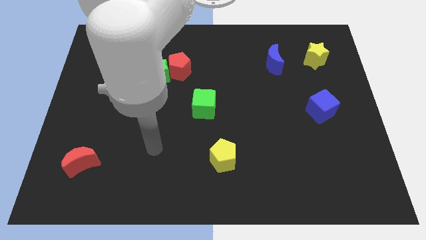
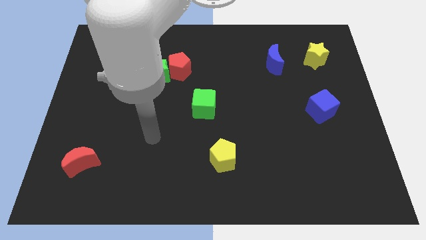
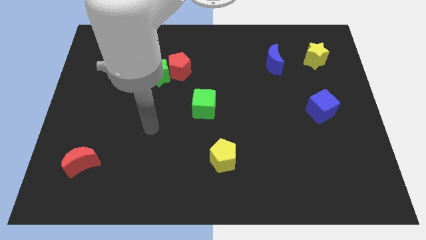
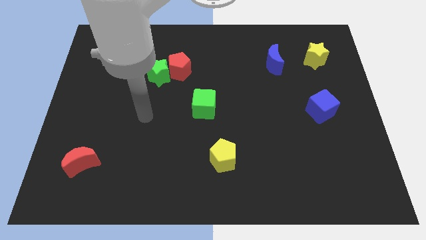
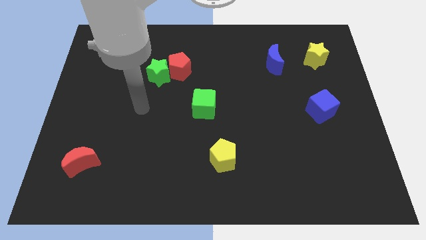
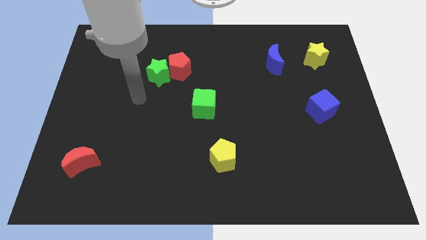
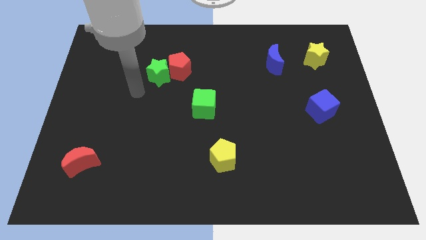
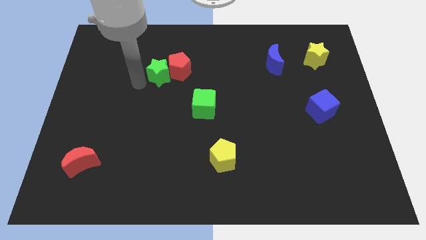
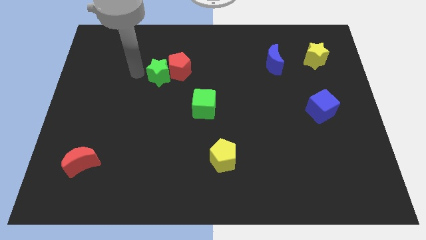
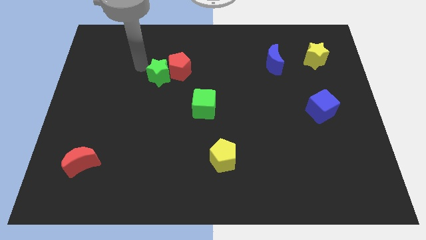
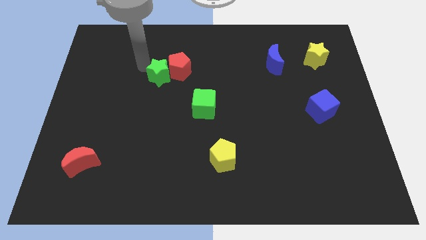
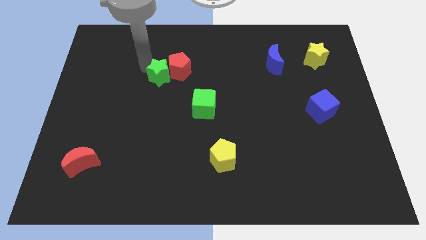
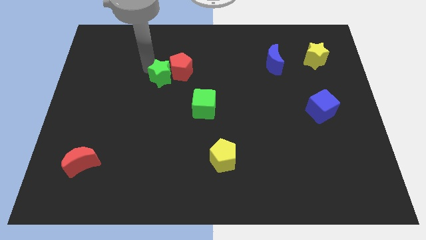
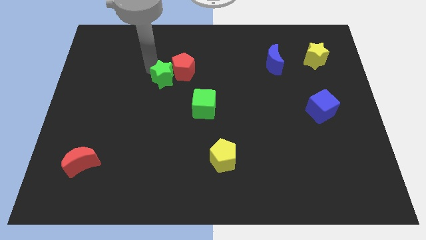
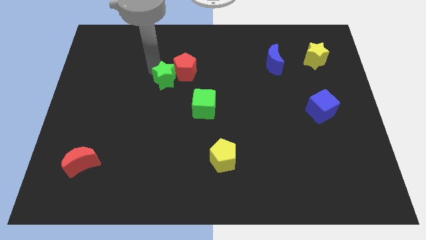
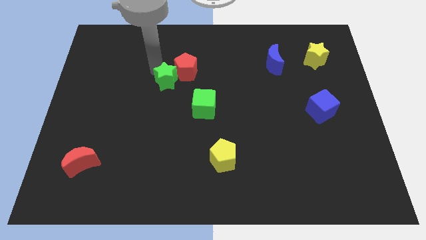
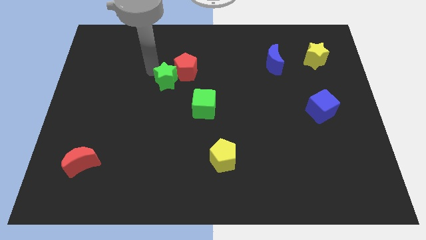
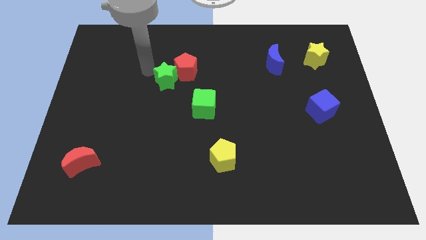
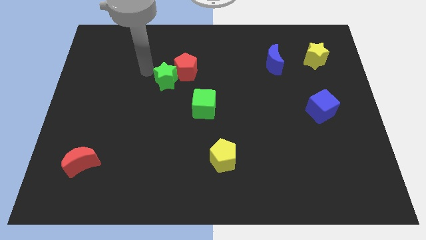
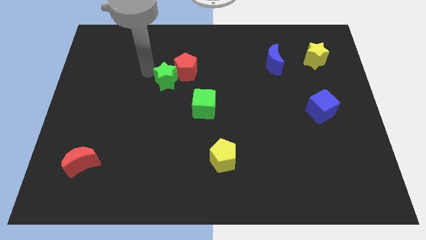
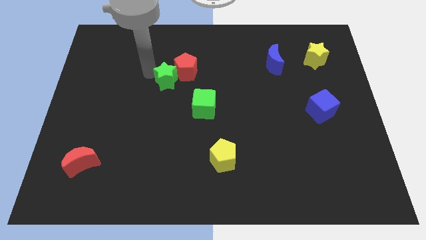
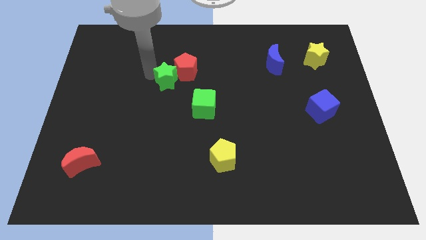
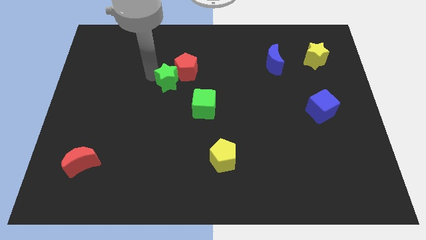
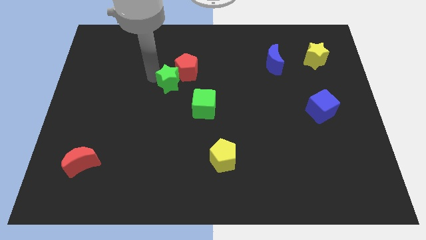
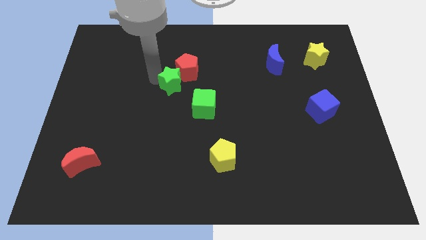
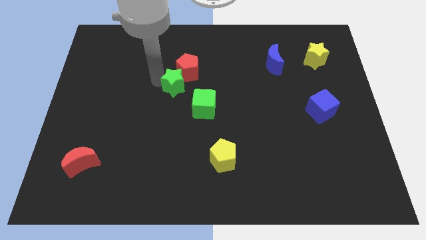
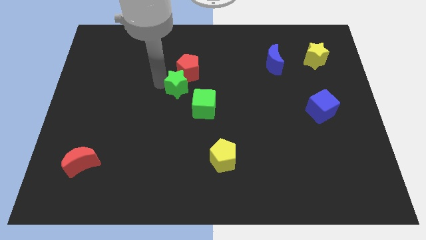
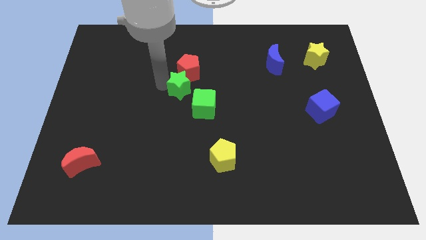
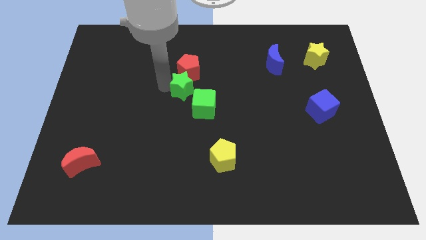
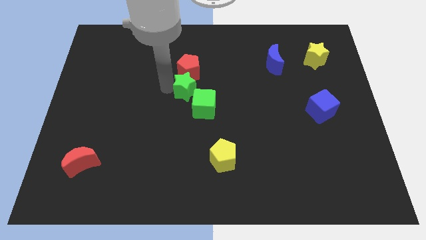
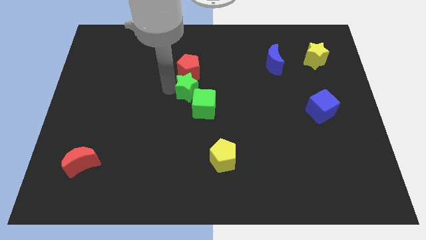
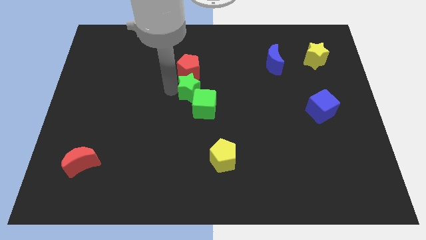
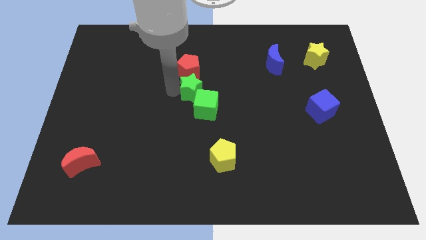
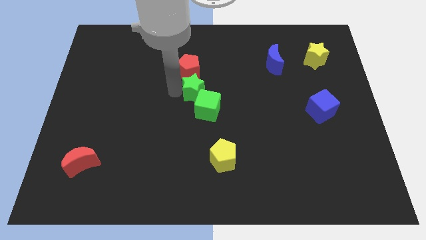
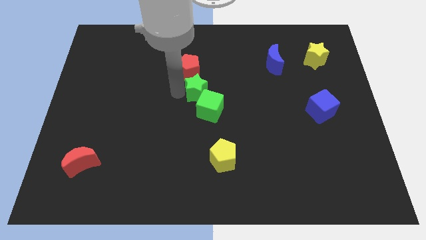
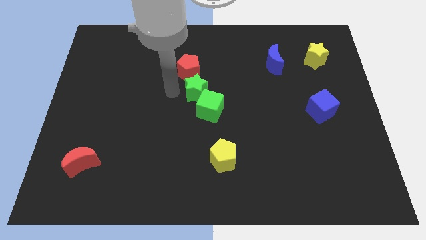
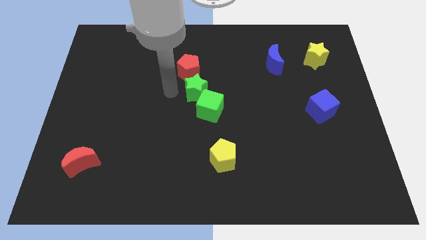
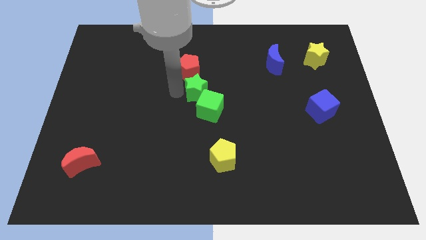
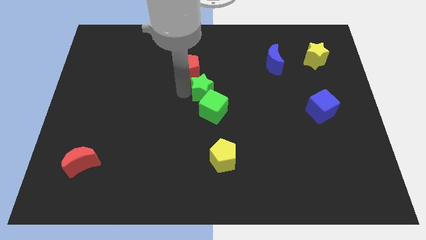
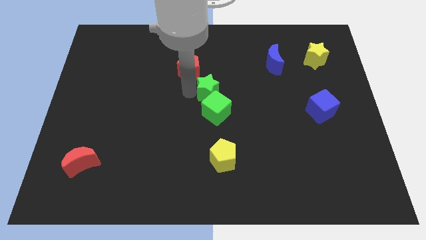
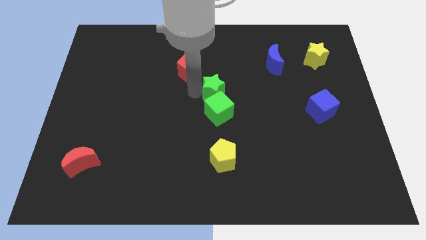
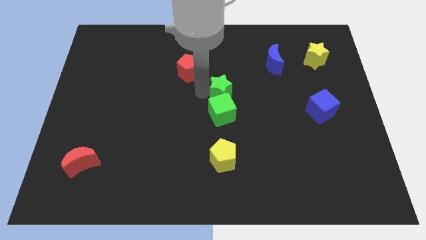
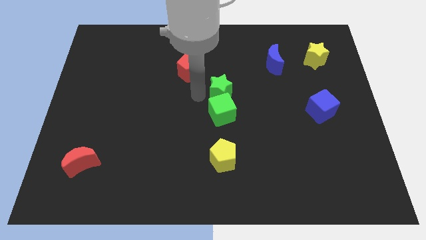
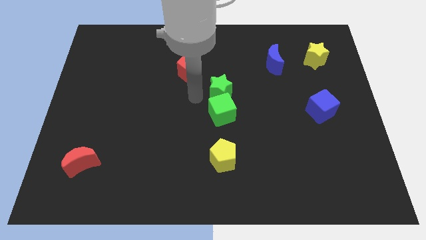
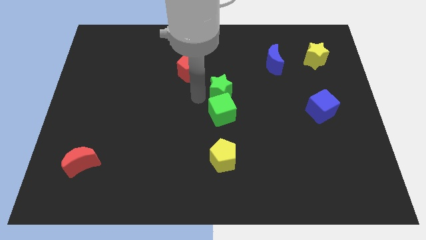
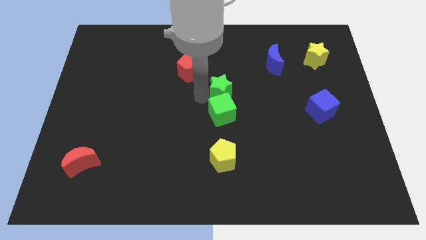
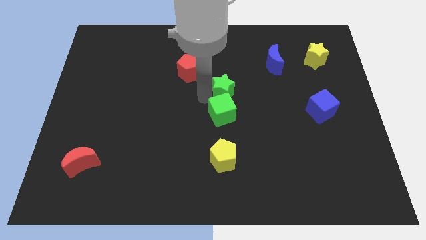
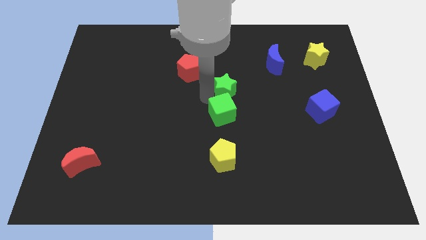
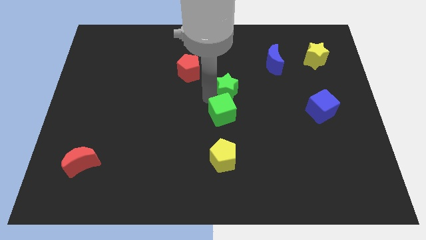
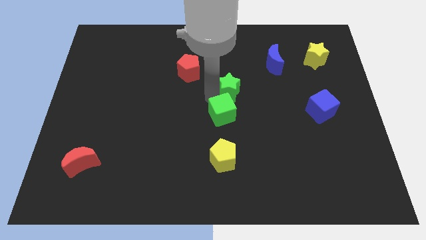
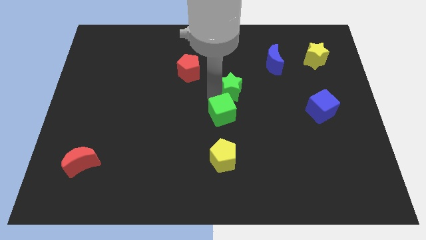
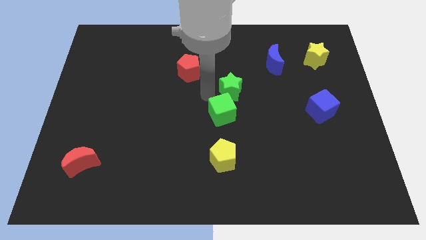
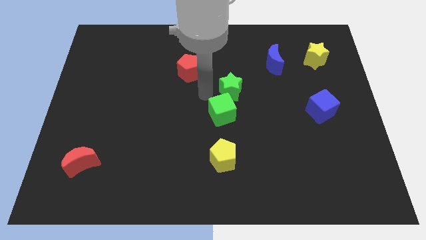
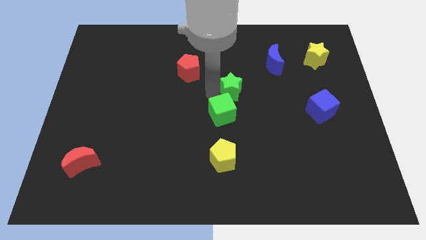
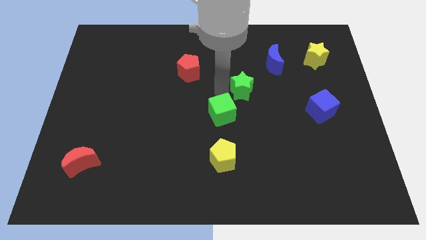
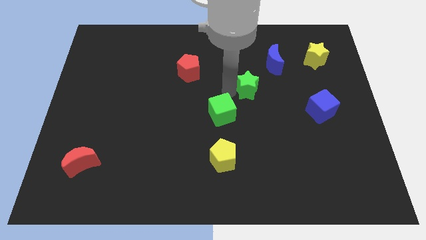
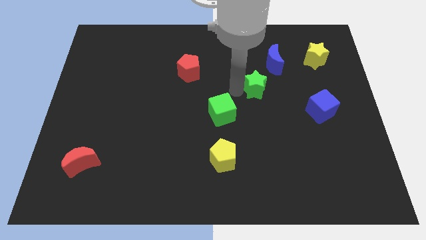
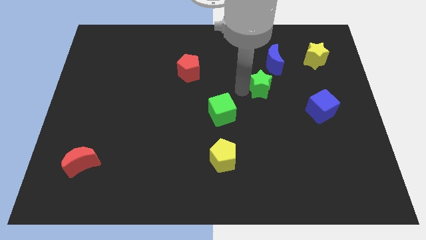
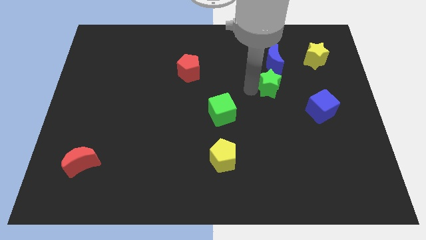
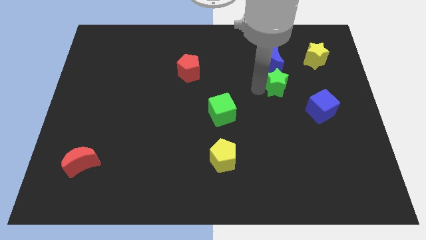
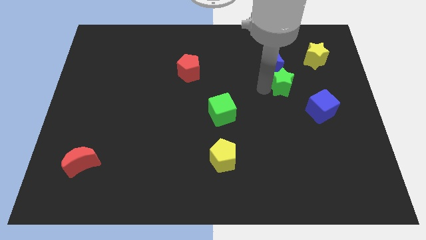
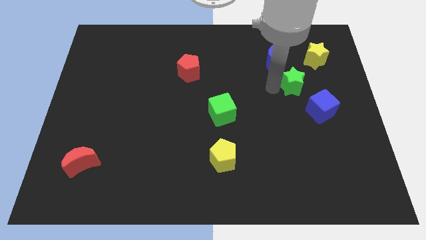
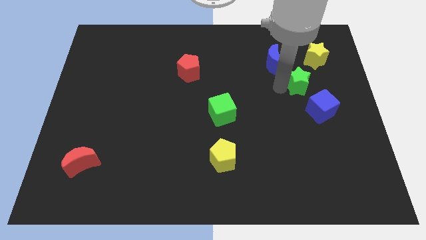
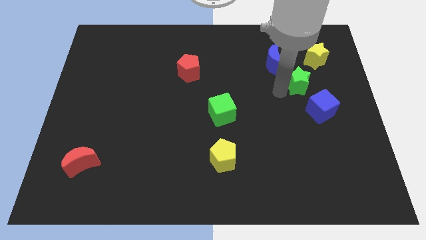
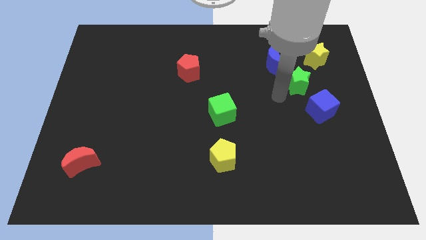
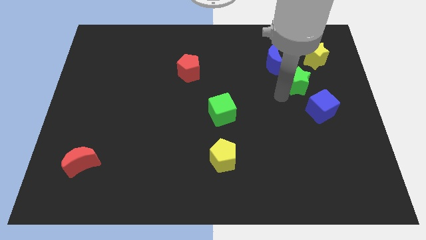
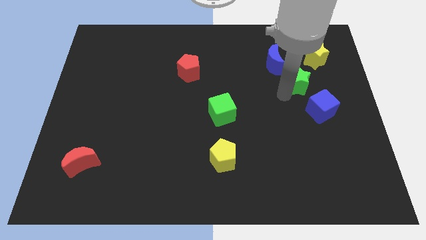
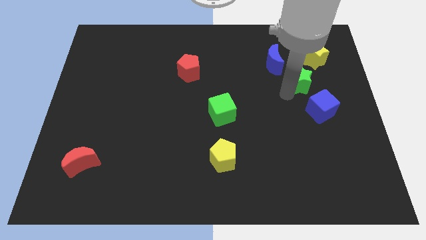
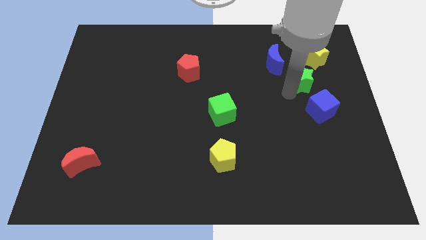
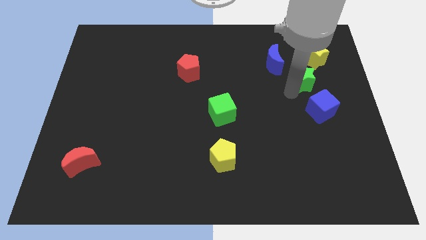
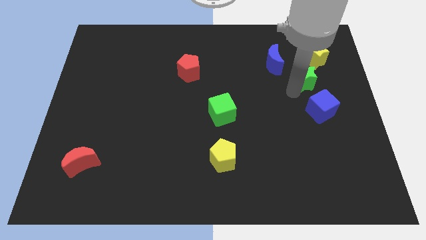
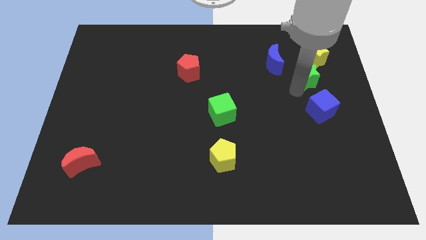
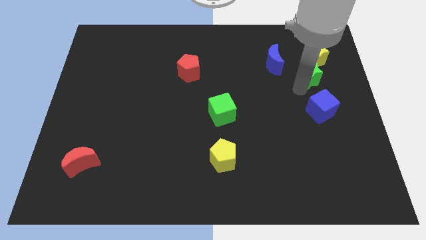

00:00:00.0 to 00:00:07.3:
put the green star to the right of the blue moon
